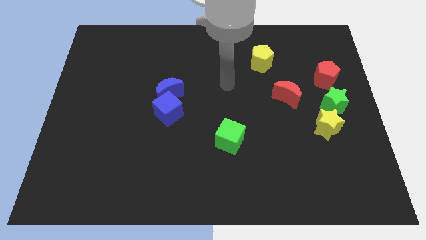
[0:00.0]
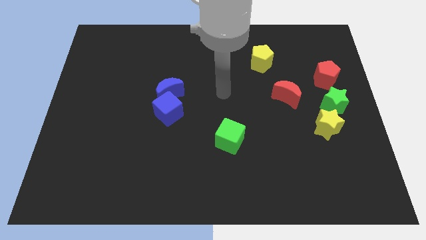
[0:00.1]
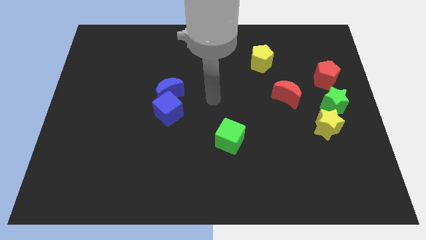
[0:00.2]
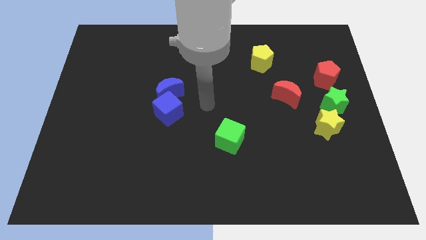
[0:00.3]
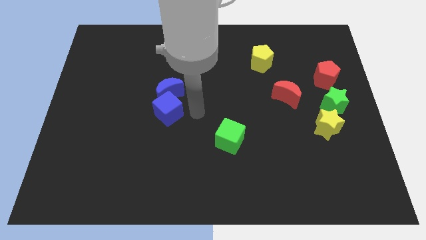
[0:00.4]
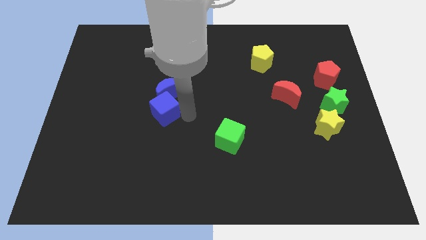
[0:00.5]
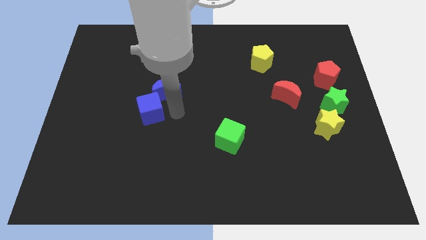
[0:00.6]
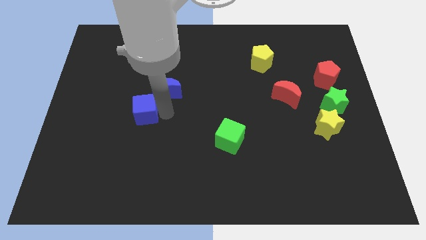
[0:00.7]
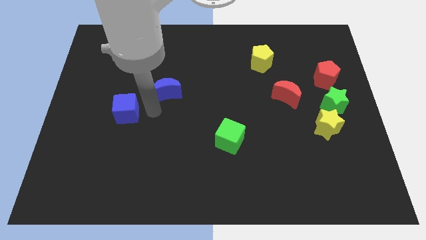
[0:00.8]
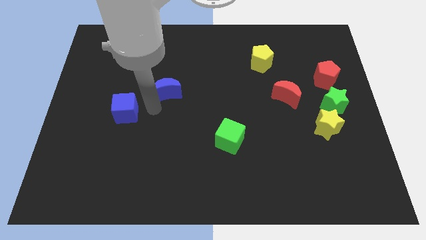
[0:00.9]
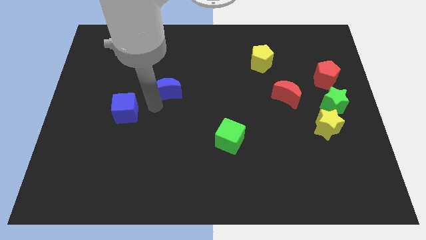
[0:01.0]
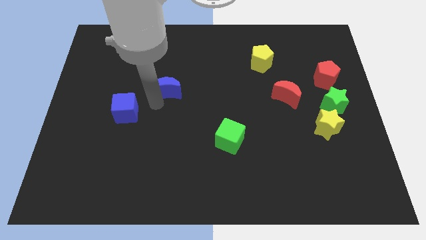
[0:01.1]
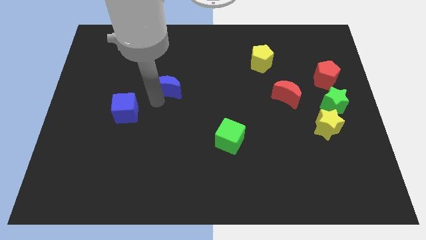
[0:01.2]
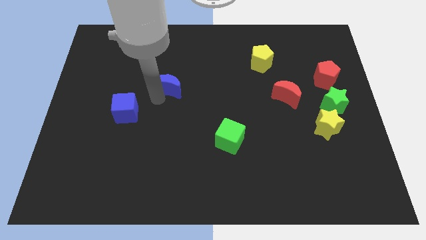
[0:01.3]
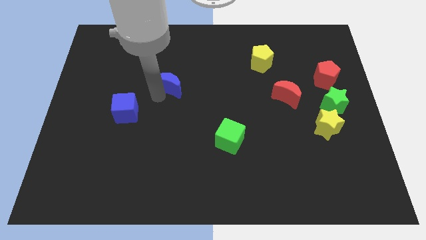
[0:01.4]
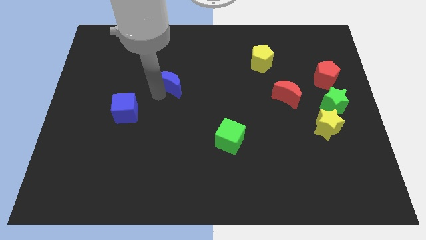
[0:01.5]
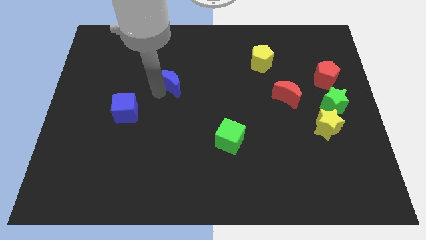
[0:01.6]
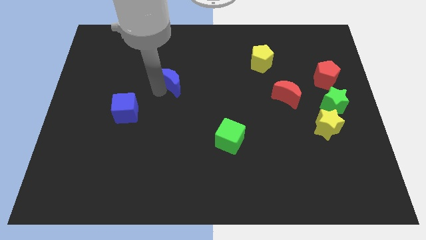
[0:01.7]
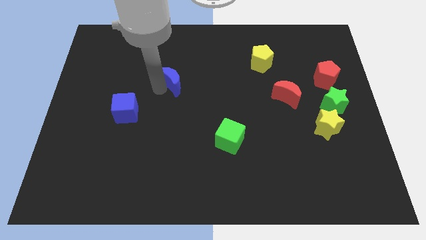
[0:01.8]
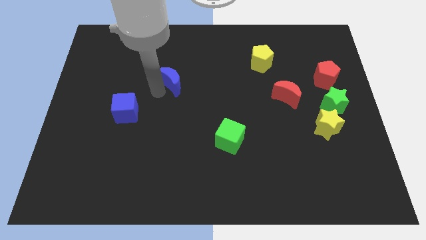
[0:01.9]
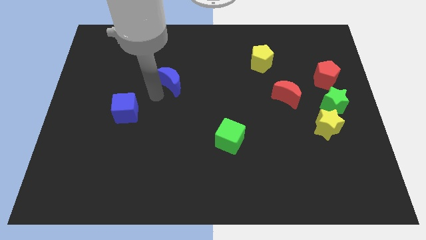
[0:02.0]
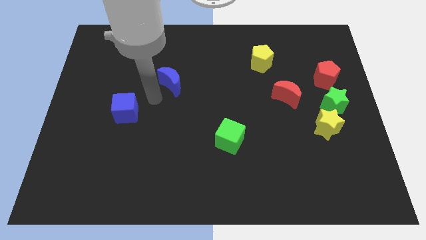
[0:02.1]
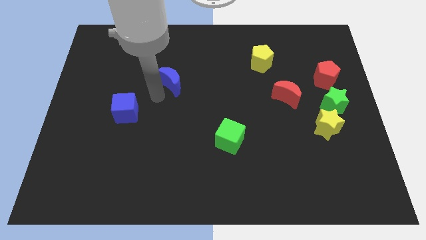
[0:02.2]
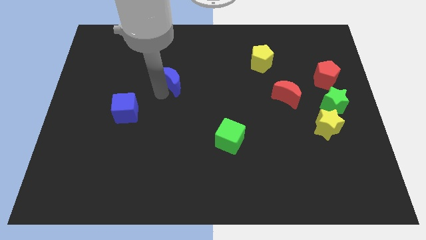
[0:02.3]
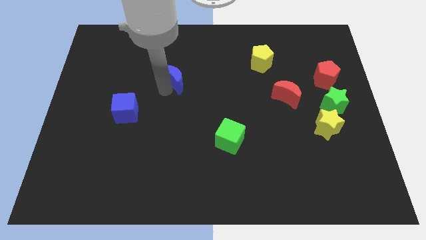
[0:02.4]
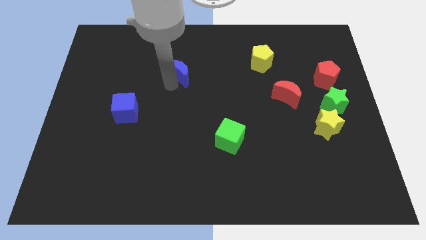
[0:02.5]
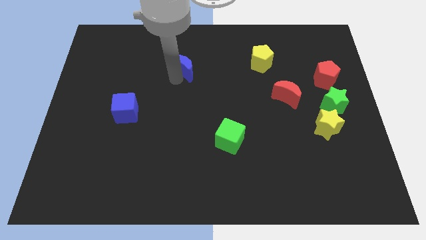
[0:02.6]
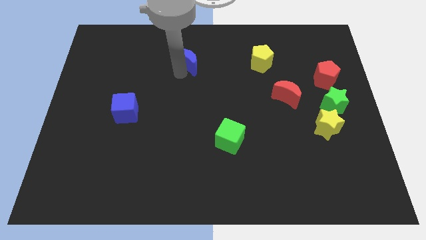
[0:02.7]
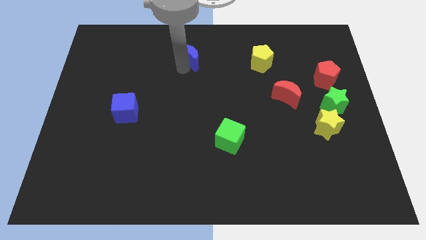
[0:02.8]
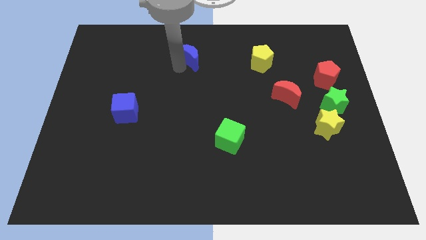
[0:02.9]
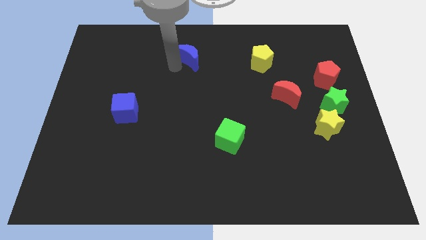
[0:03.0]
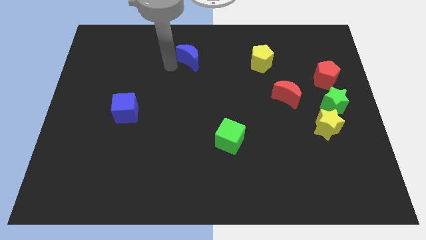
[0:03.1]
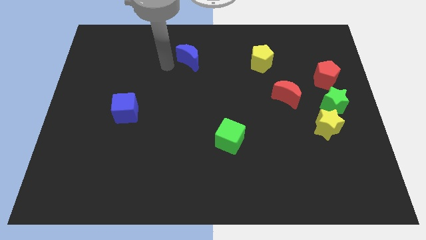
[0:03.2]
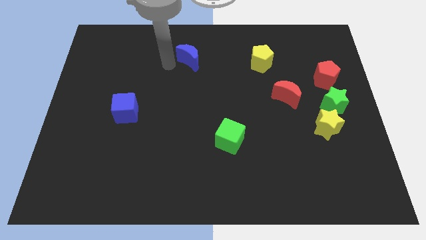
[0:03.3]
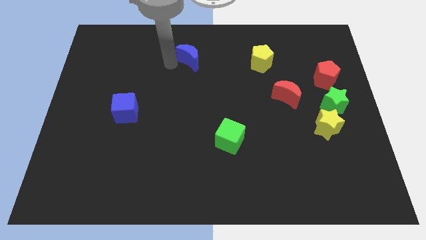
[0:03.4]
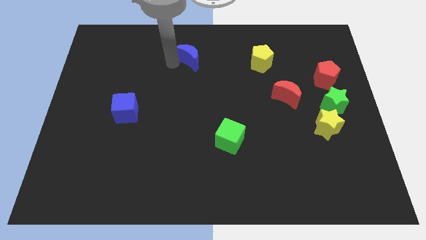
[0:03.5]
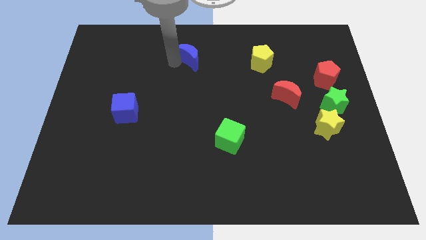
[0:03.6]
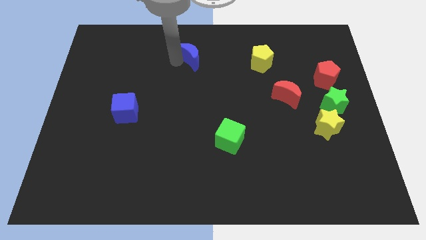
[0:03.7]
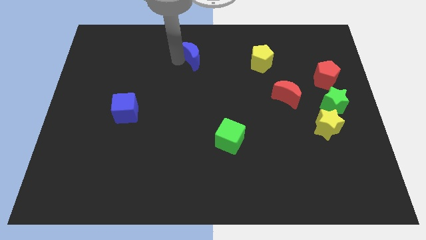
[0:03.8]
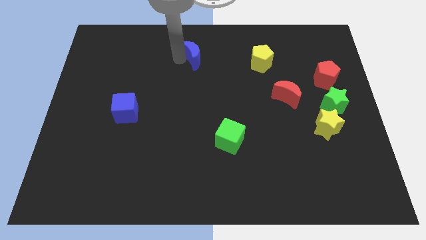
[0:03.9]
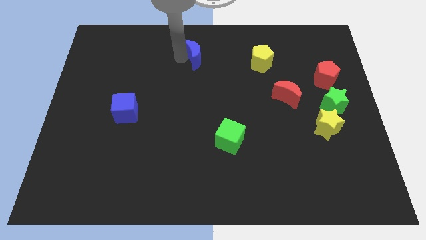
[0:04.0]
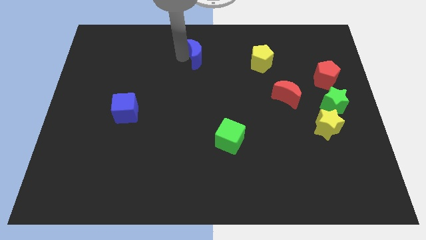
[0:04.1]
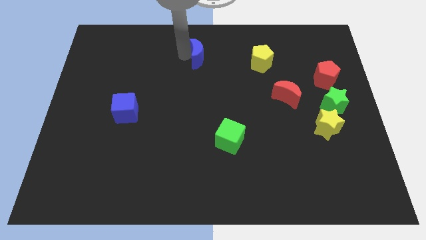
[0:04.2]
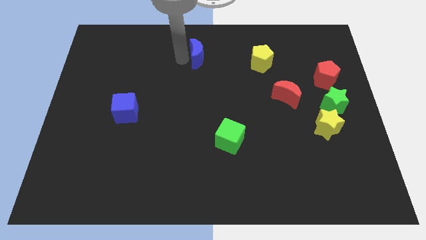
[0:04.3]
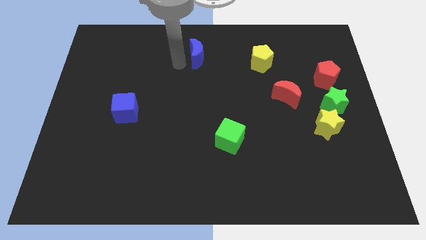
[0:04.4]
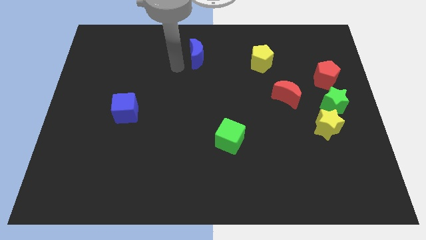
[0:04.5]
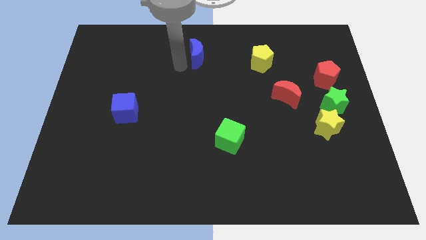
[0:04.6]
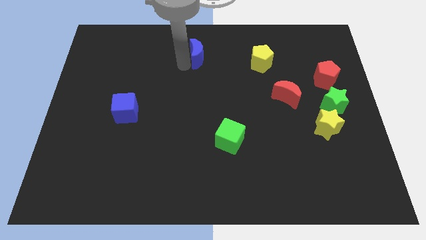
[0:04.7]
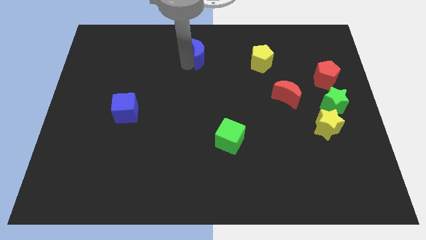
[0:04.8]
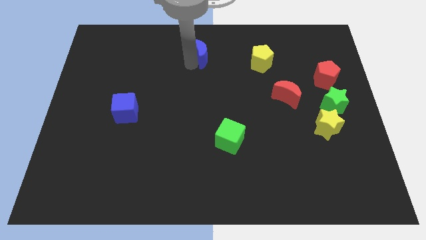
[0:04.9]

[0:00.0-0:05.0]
move the blue moon to the towards your base

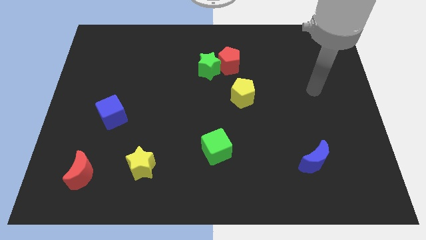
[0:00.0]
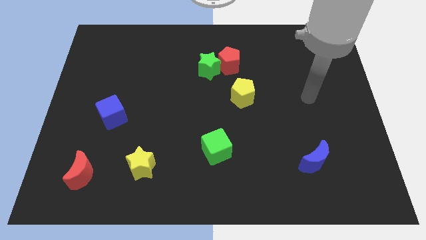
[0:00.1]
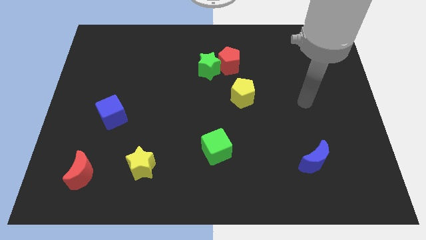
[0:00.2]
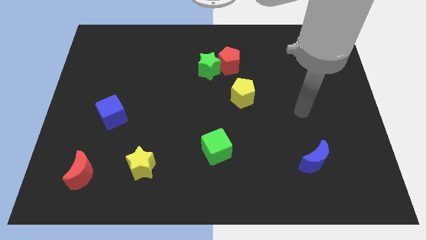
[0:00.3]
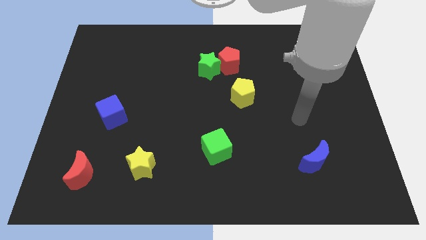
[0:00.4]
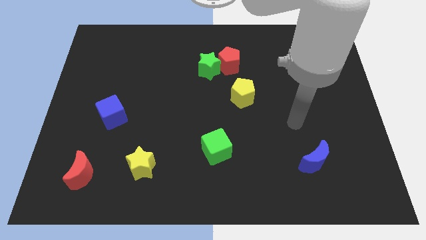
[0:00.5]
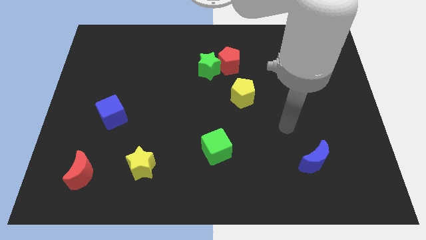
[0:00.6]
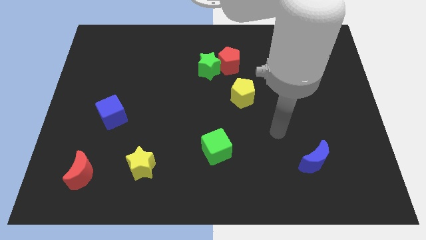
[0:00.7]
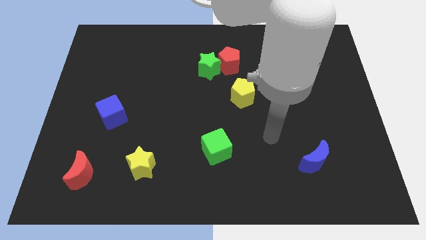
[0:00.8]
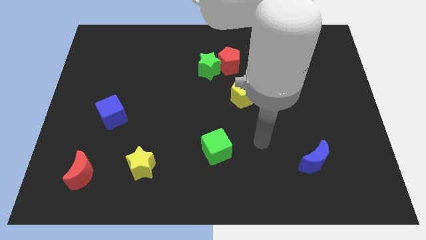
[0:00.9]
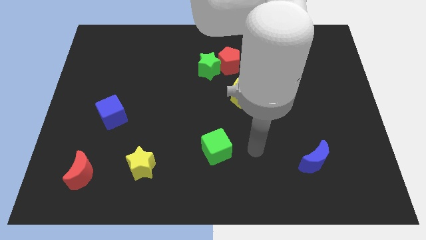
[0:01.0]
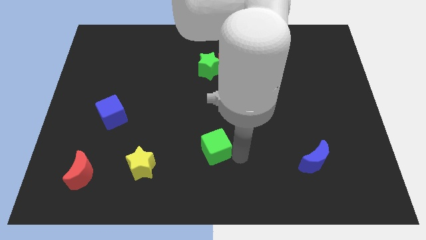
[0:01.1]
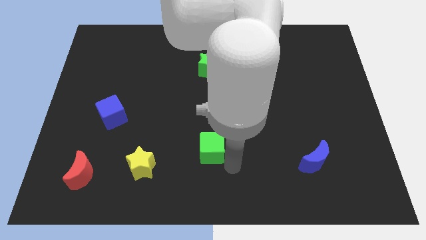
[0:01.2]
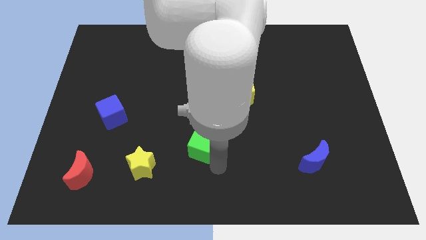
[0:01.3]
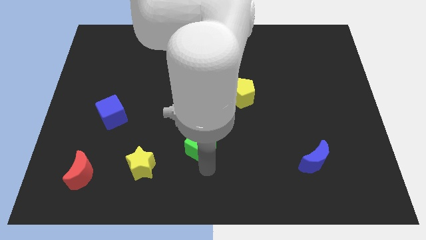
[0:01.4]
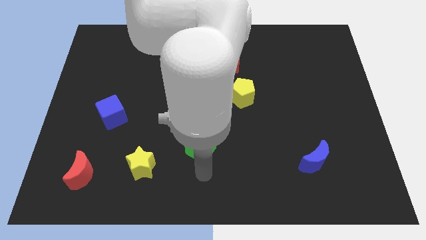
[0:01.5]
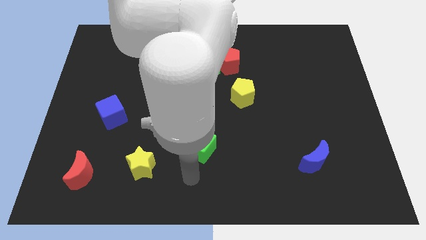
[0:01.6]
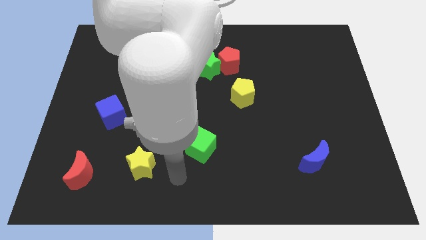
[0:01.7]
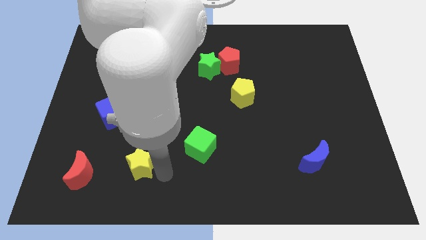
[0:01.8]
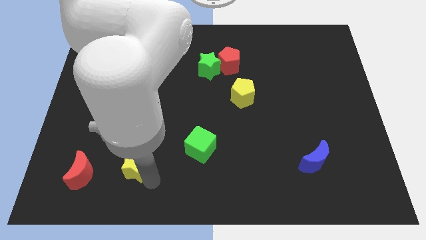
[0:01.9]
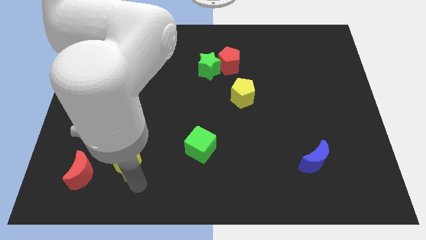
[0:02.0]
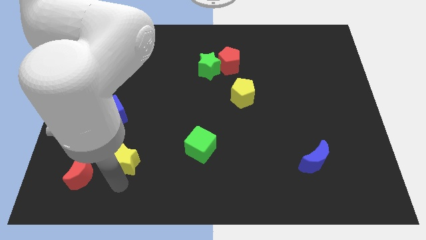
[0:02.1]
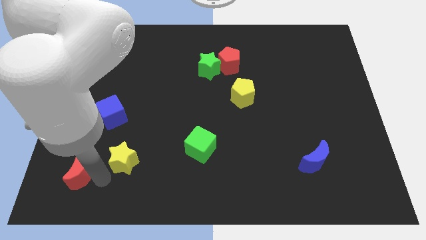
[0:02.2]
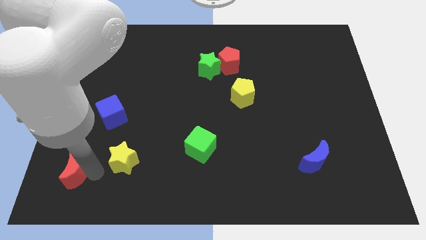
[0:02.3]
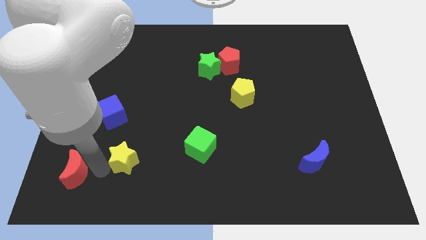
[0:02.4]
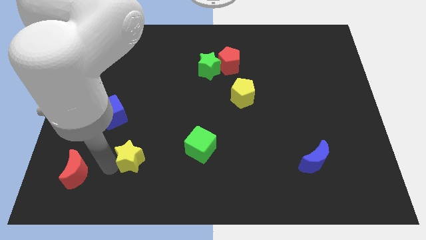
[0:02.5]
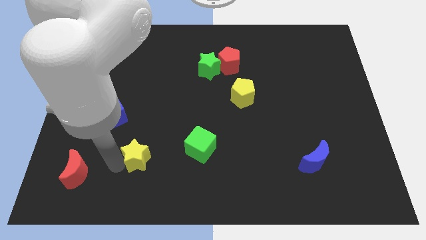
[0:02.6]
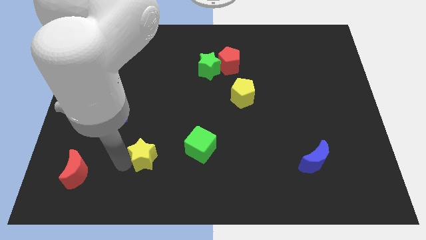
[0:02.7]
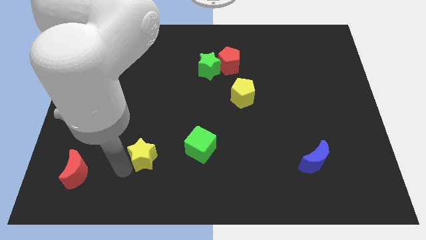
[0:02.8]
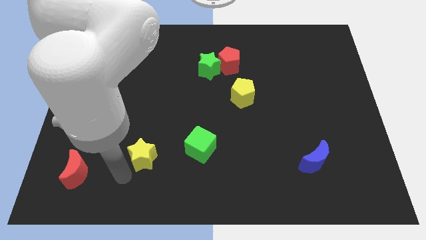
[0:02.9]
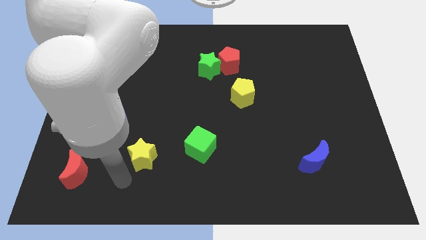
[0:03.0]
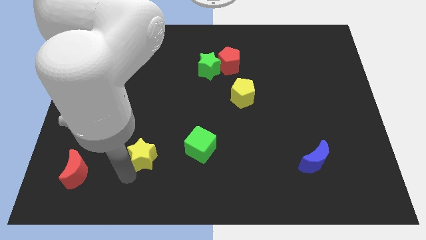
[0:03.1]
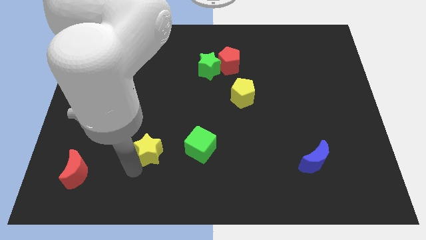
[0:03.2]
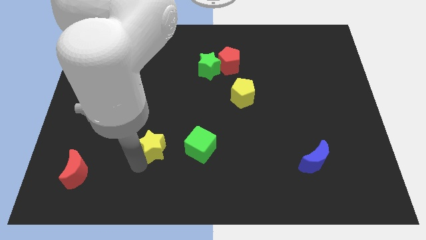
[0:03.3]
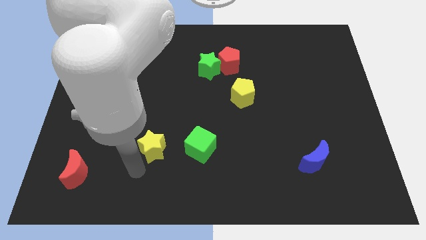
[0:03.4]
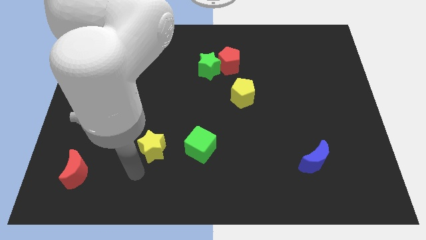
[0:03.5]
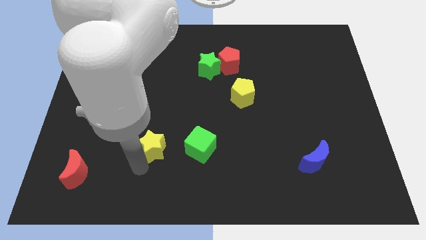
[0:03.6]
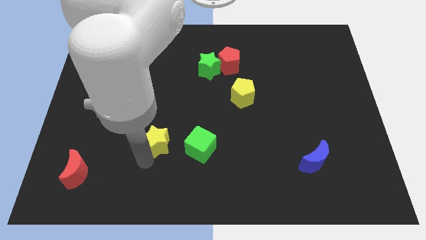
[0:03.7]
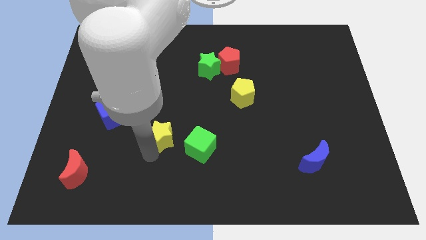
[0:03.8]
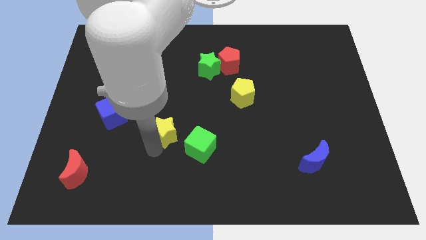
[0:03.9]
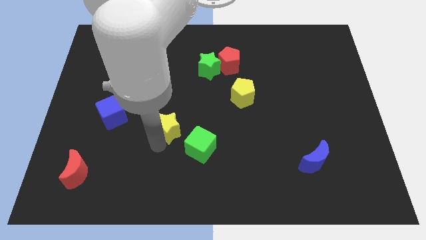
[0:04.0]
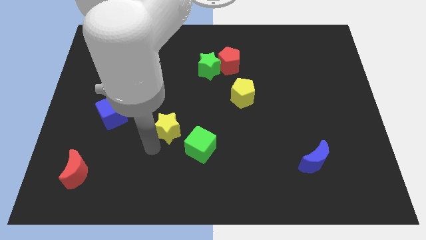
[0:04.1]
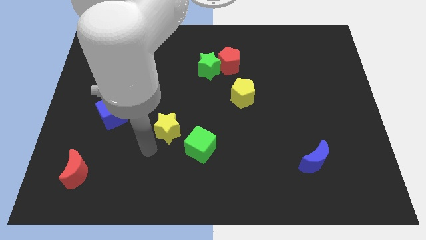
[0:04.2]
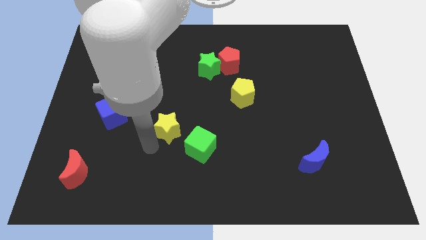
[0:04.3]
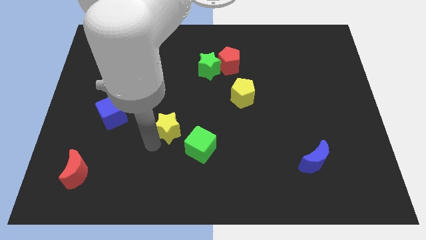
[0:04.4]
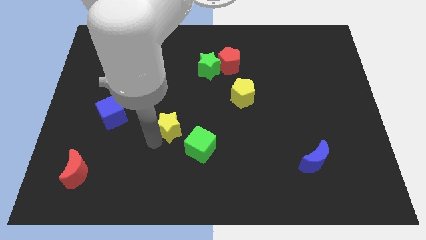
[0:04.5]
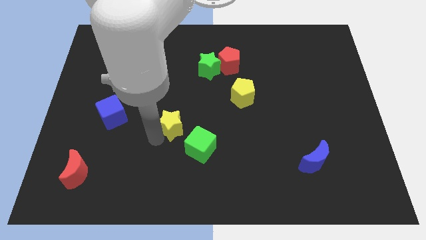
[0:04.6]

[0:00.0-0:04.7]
slide the yellow star to the middle of the board
